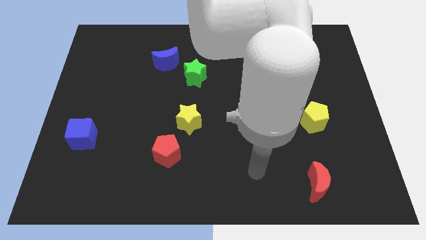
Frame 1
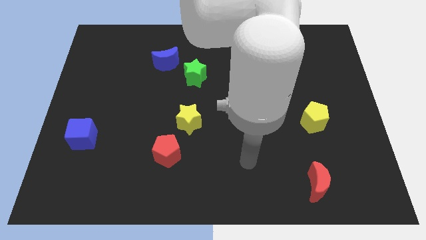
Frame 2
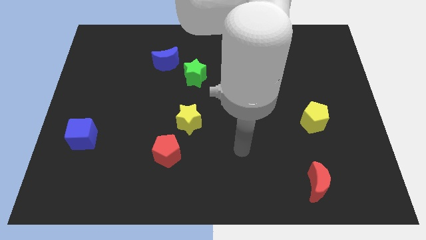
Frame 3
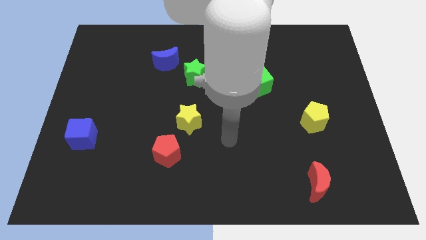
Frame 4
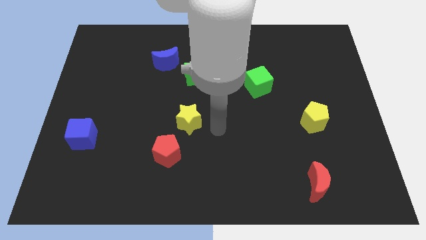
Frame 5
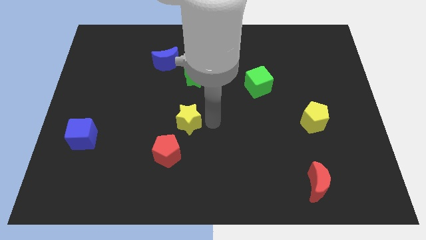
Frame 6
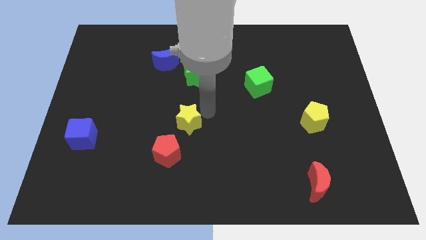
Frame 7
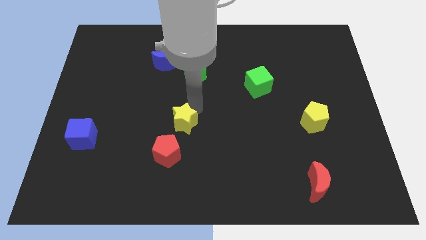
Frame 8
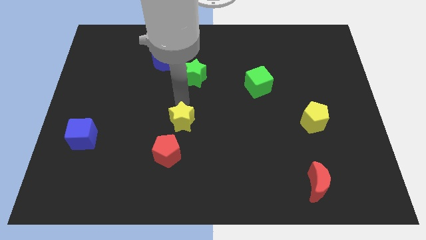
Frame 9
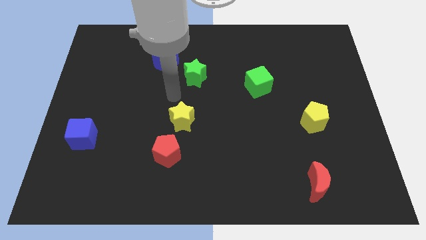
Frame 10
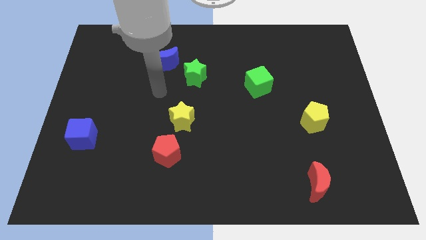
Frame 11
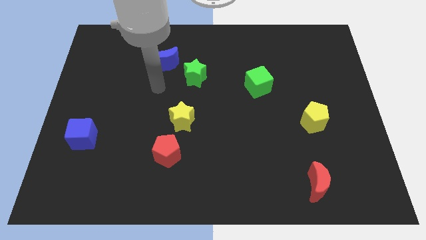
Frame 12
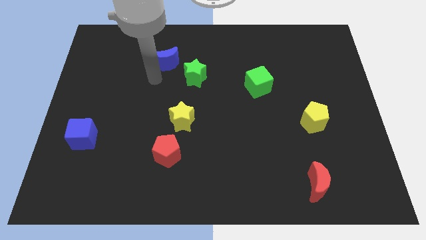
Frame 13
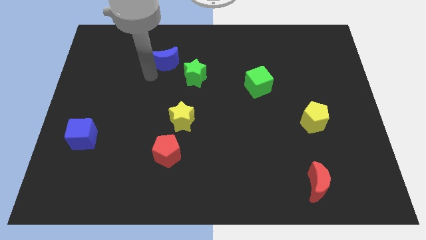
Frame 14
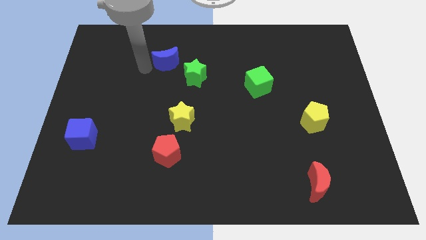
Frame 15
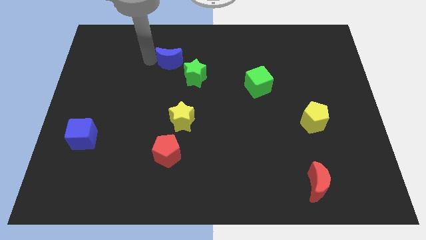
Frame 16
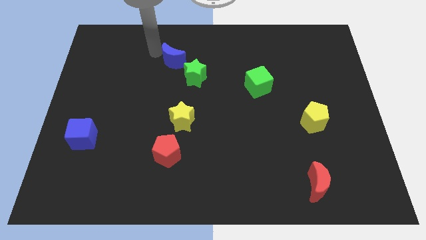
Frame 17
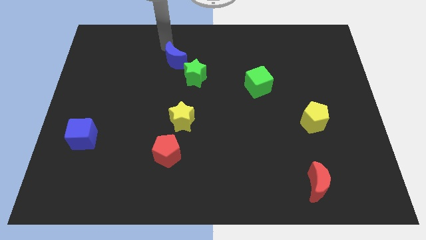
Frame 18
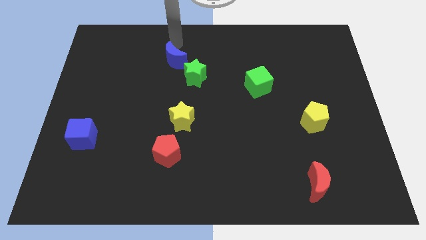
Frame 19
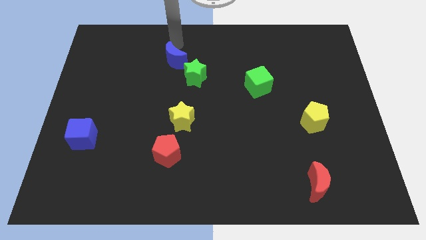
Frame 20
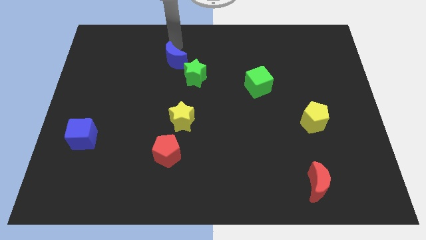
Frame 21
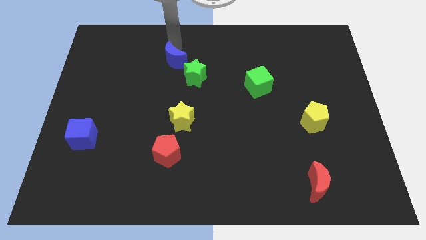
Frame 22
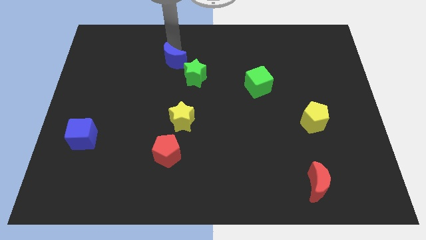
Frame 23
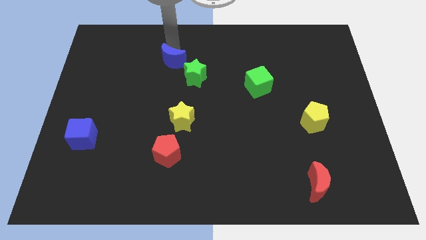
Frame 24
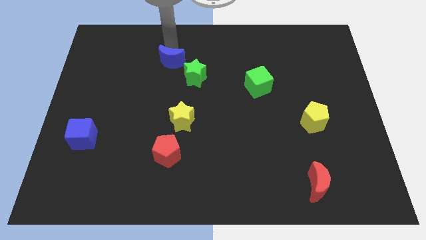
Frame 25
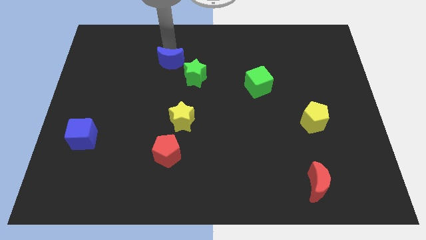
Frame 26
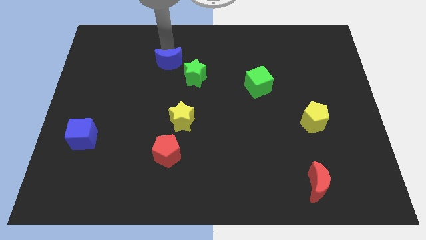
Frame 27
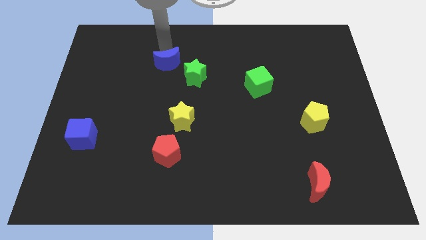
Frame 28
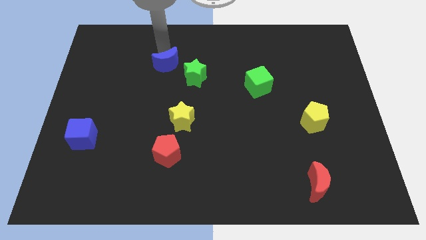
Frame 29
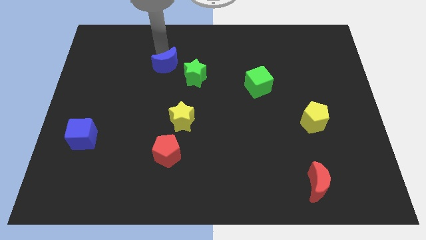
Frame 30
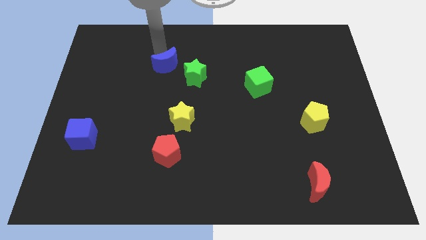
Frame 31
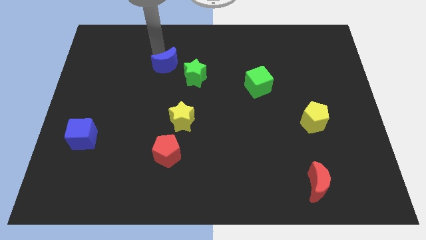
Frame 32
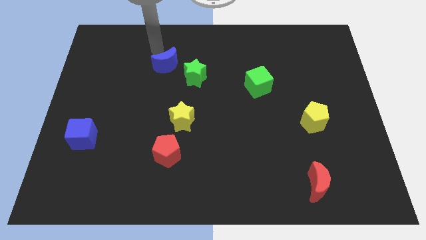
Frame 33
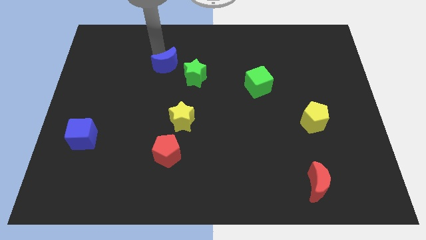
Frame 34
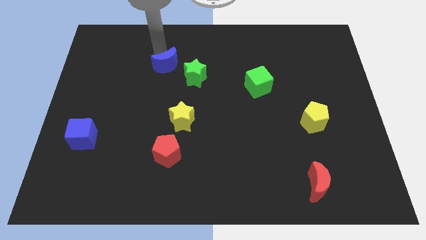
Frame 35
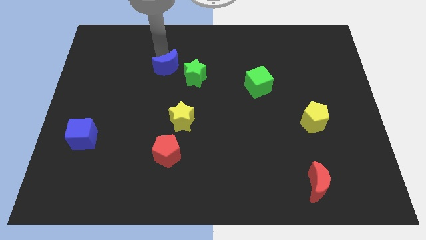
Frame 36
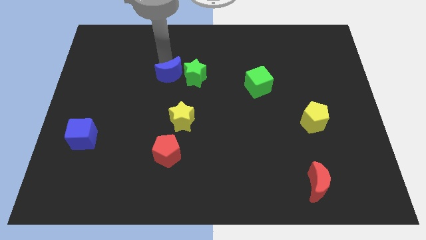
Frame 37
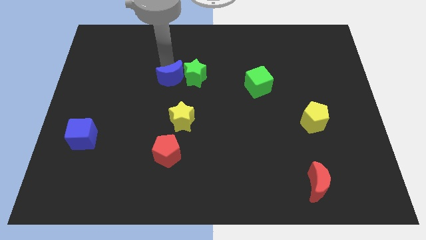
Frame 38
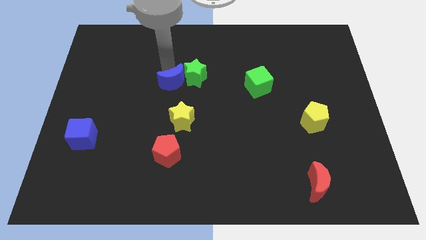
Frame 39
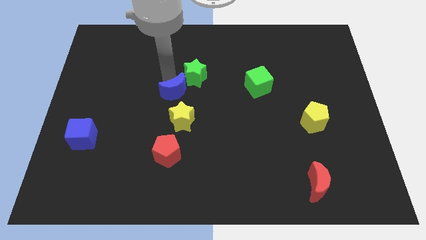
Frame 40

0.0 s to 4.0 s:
move the blue moon a little bit down and to the right diagonally

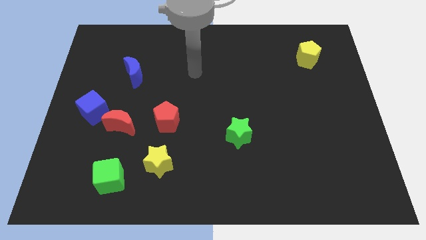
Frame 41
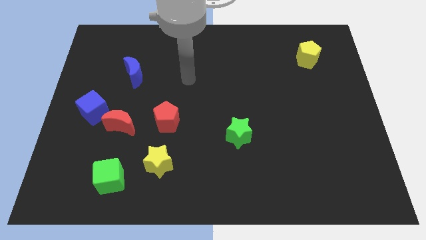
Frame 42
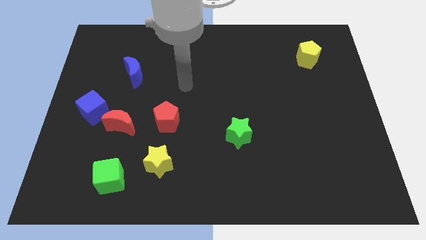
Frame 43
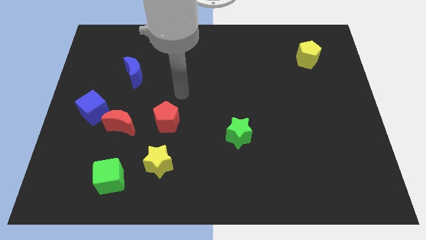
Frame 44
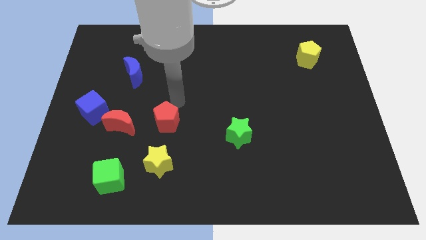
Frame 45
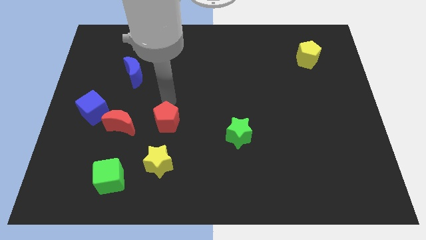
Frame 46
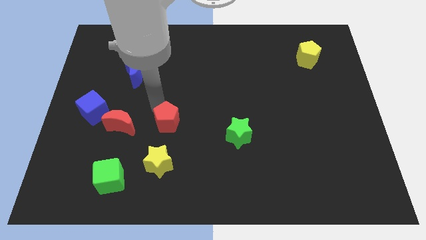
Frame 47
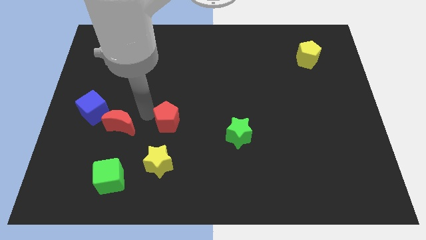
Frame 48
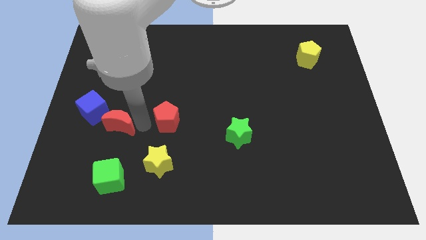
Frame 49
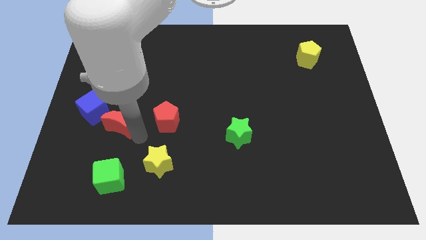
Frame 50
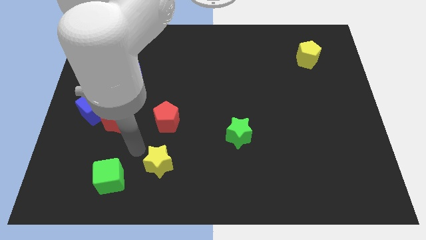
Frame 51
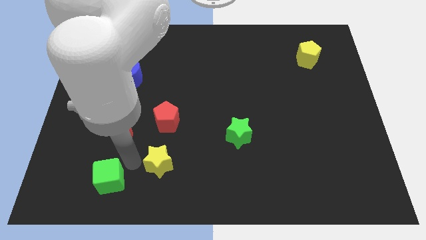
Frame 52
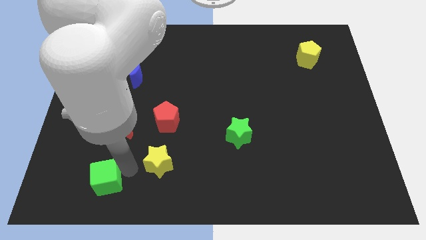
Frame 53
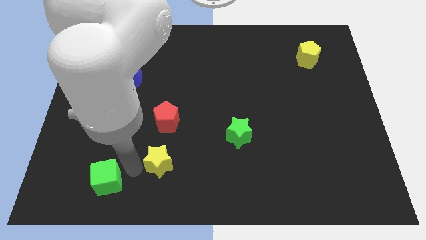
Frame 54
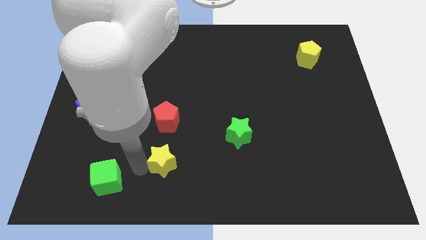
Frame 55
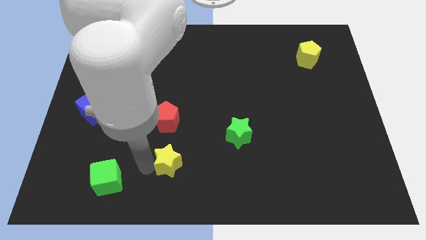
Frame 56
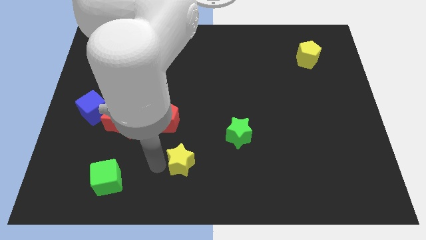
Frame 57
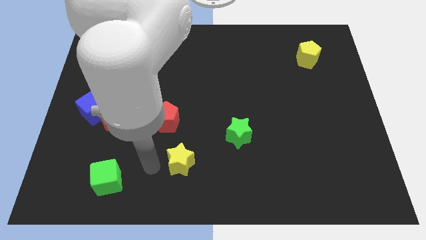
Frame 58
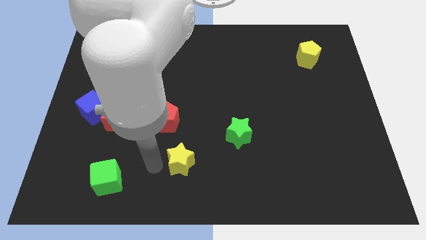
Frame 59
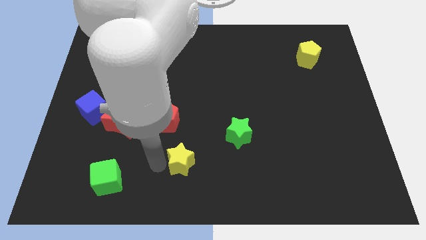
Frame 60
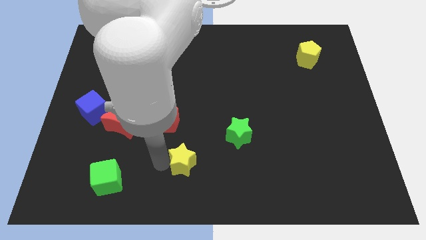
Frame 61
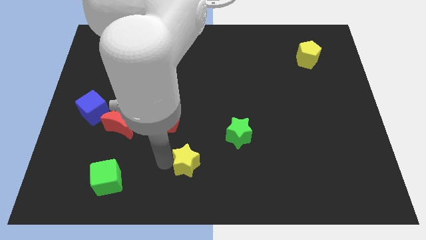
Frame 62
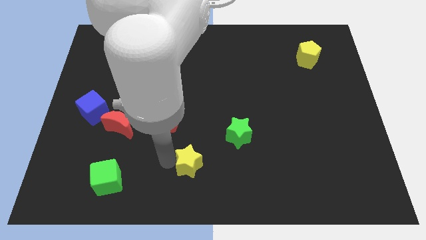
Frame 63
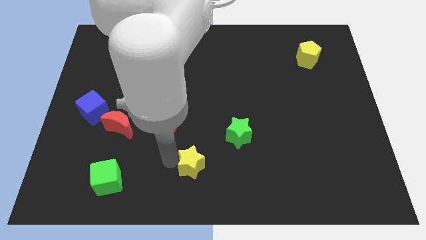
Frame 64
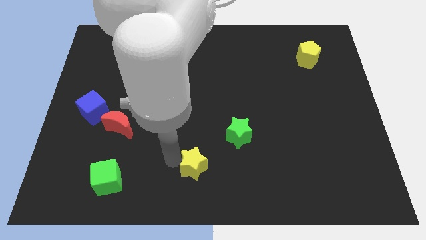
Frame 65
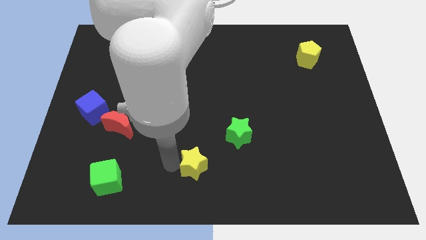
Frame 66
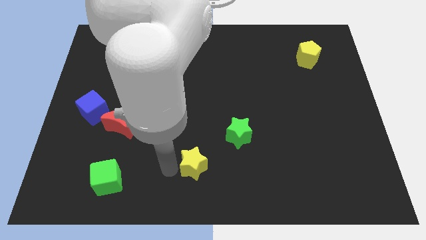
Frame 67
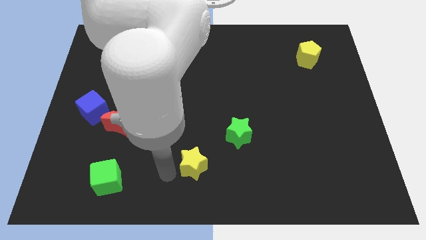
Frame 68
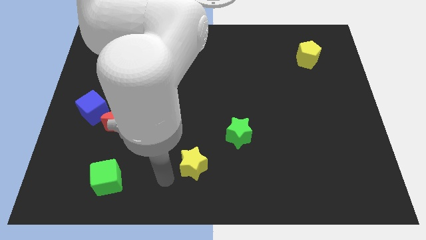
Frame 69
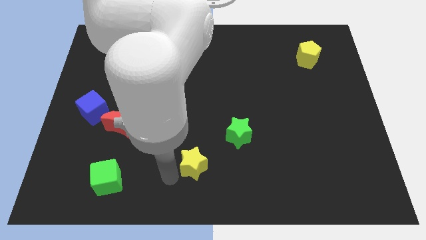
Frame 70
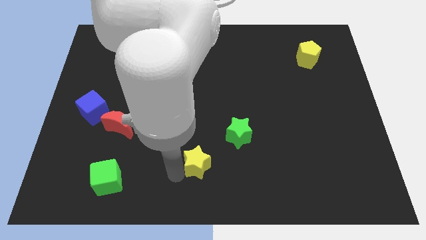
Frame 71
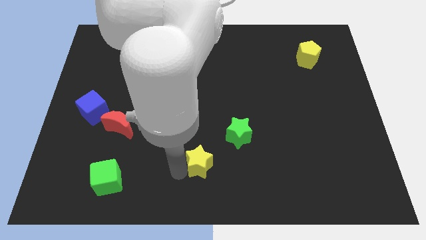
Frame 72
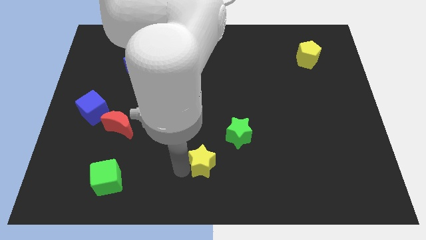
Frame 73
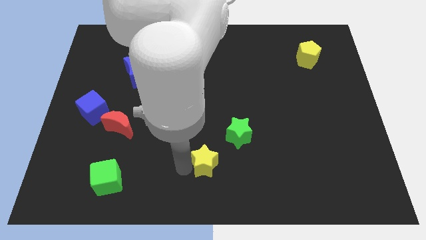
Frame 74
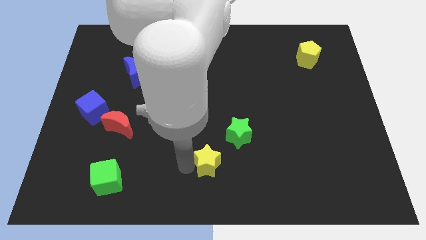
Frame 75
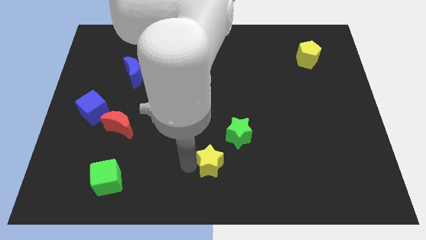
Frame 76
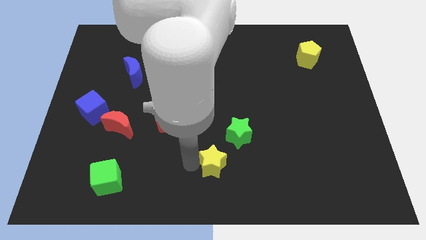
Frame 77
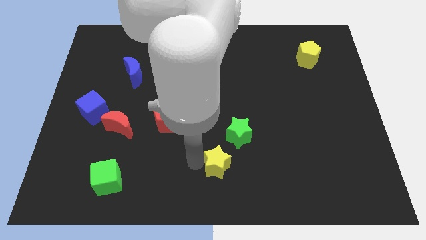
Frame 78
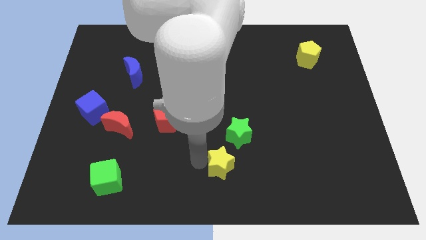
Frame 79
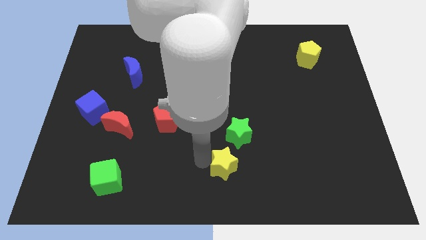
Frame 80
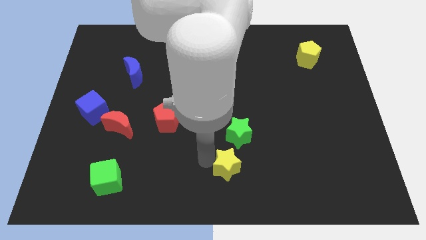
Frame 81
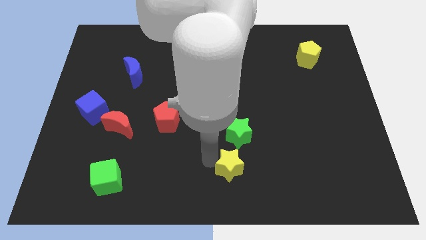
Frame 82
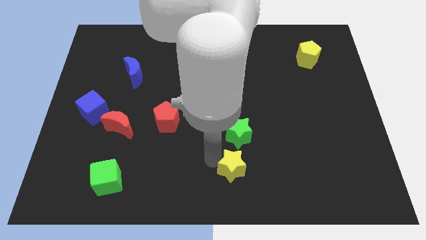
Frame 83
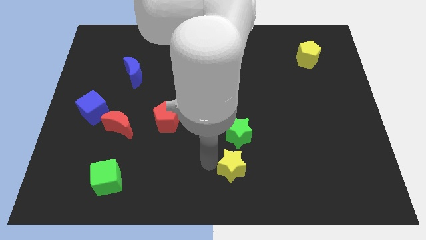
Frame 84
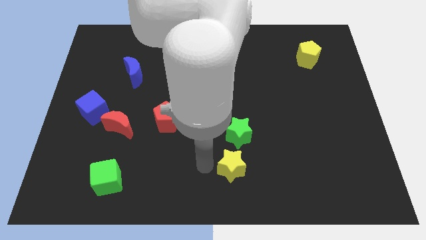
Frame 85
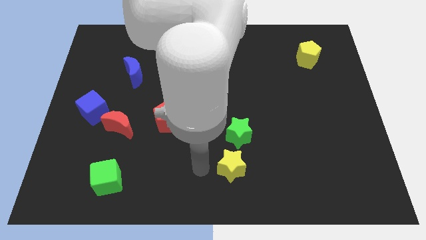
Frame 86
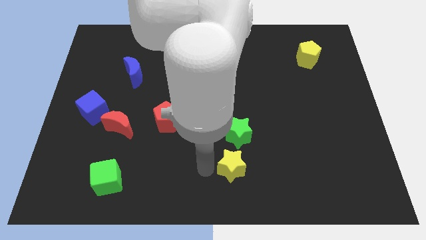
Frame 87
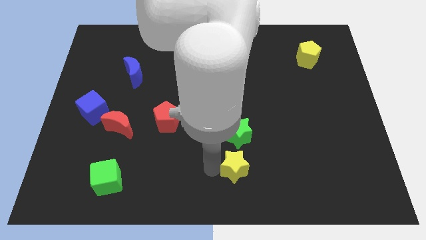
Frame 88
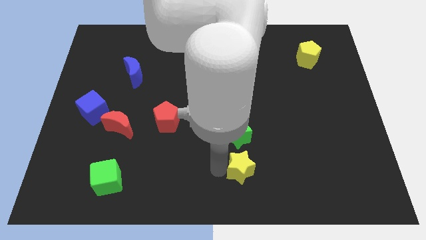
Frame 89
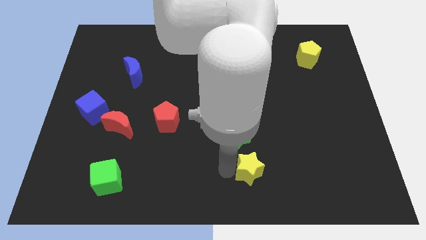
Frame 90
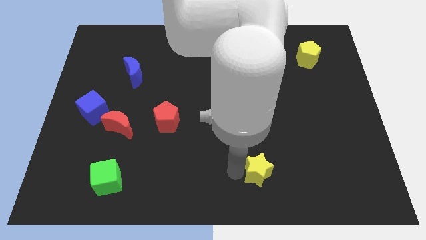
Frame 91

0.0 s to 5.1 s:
move the yellow star right
